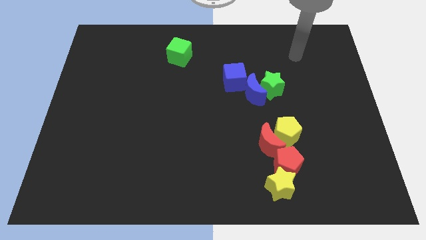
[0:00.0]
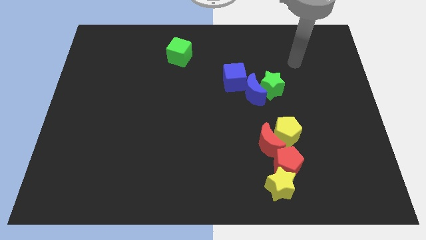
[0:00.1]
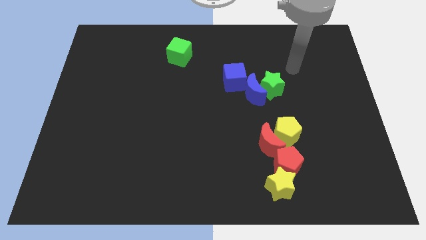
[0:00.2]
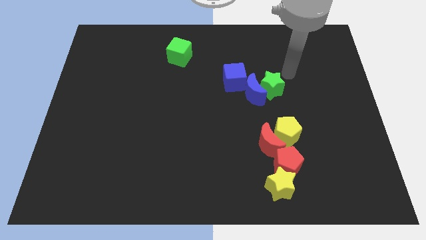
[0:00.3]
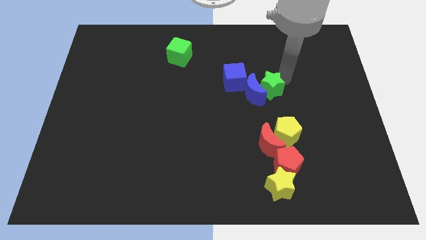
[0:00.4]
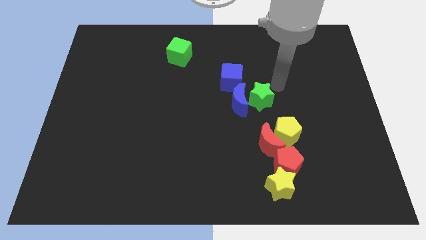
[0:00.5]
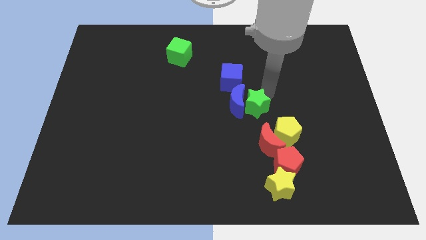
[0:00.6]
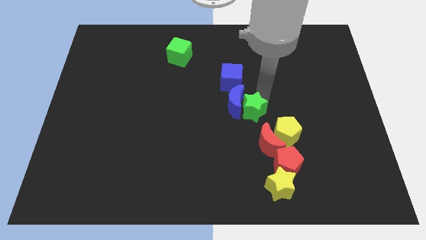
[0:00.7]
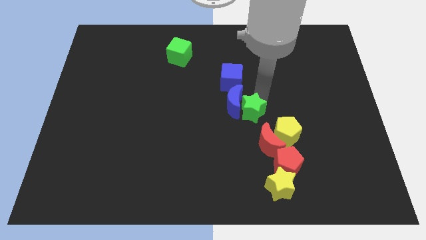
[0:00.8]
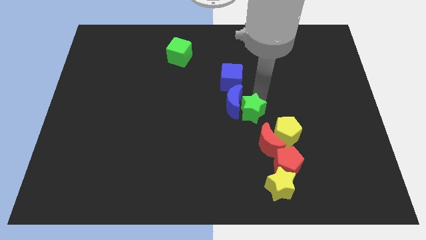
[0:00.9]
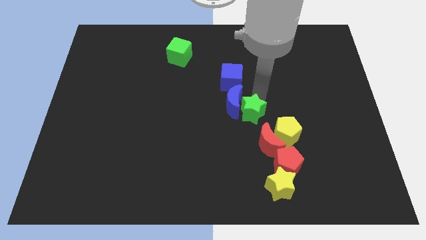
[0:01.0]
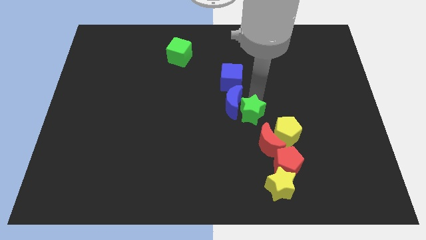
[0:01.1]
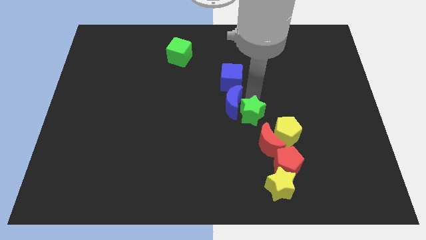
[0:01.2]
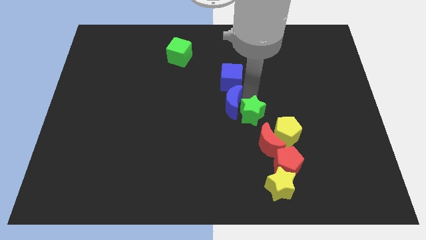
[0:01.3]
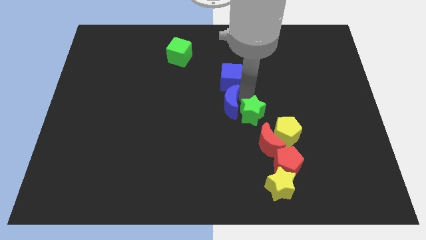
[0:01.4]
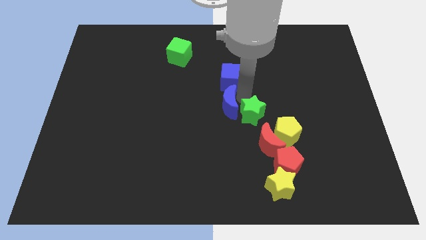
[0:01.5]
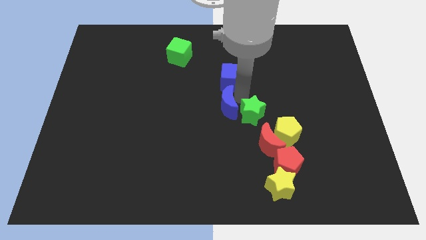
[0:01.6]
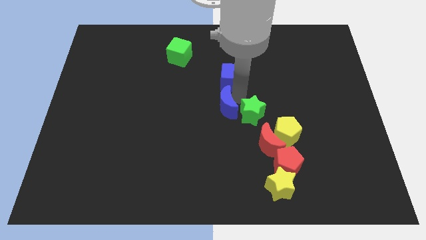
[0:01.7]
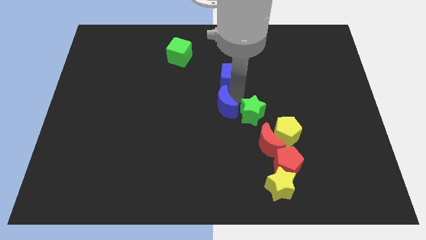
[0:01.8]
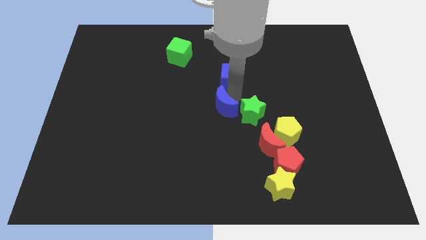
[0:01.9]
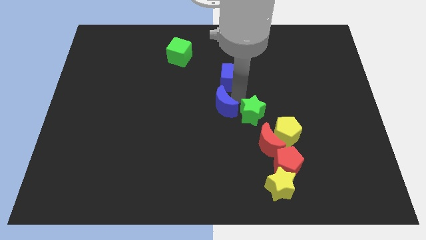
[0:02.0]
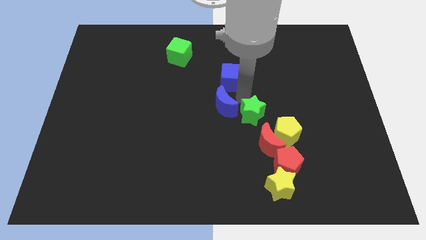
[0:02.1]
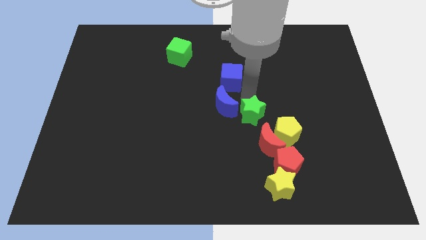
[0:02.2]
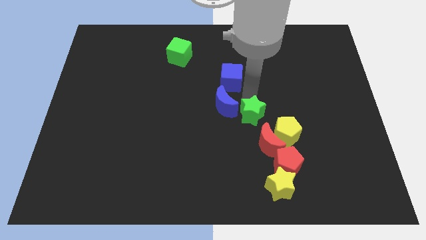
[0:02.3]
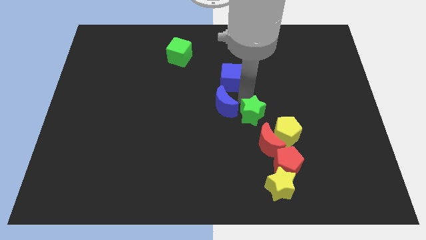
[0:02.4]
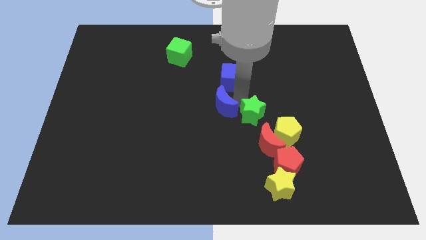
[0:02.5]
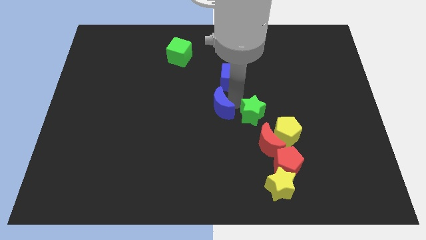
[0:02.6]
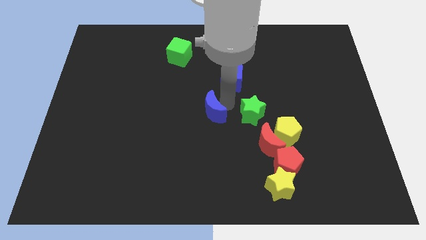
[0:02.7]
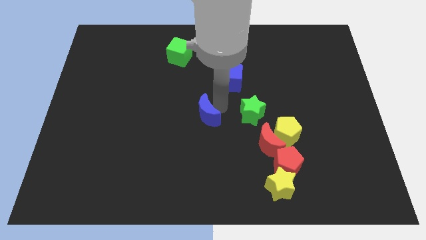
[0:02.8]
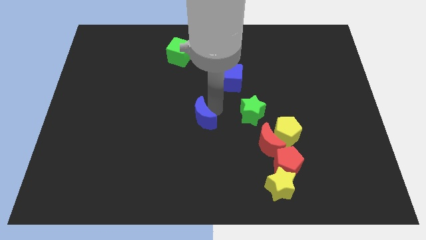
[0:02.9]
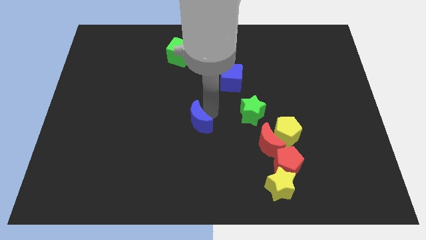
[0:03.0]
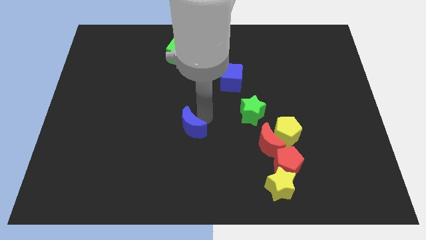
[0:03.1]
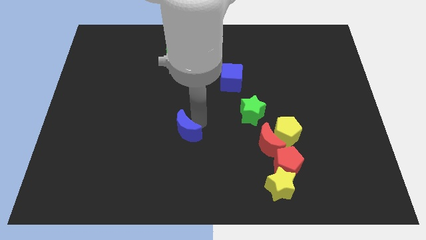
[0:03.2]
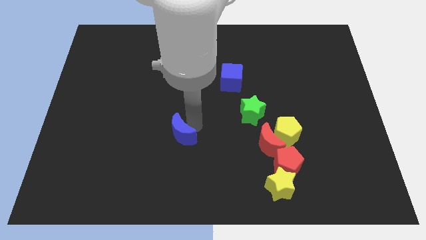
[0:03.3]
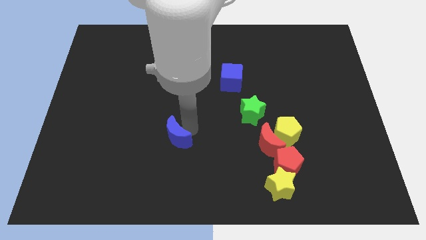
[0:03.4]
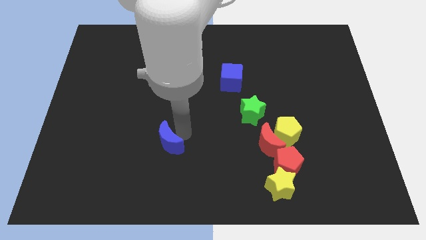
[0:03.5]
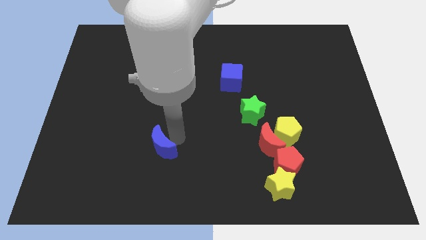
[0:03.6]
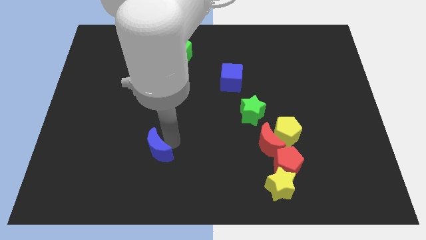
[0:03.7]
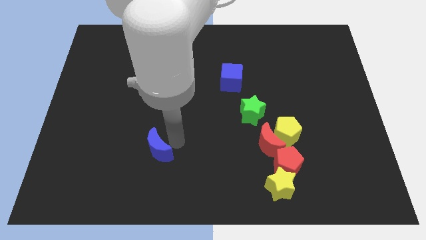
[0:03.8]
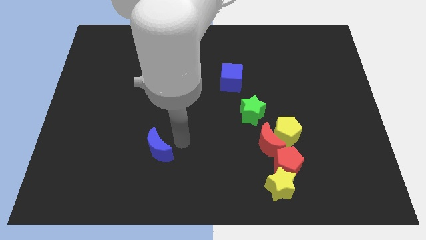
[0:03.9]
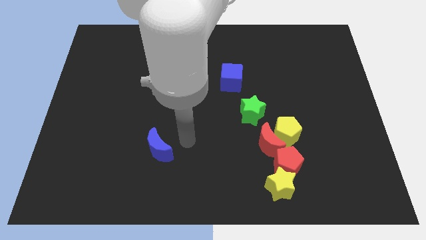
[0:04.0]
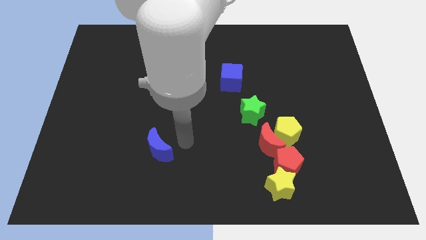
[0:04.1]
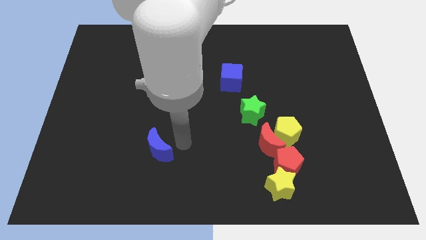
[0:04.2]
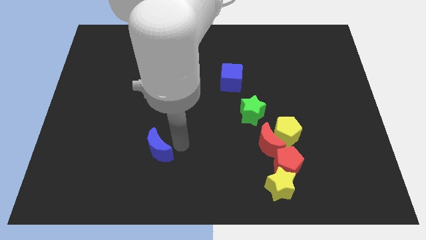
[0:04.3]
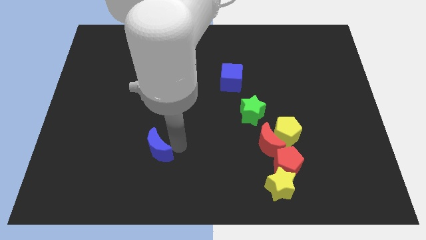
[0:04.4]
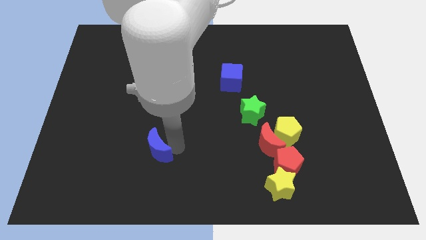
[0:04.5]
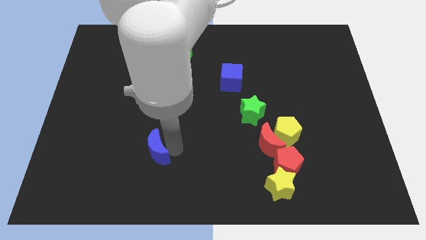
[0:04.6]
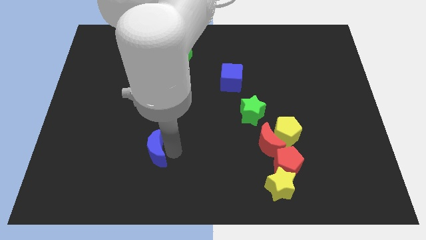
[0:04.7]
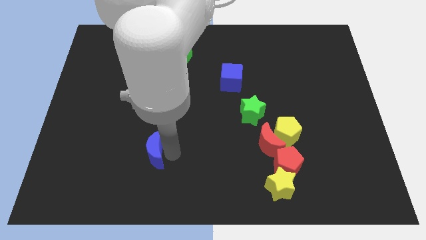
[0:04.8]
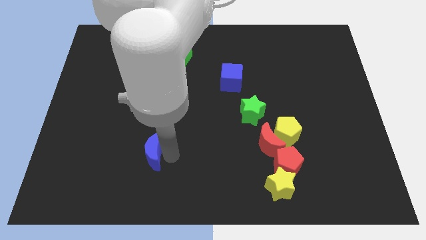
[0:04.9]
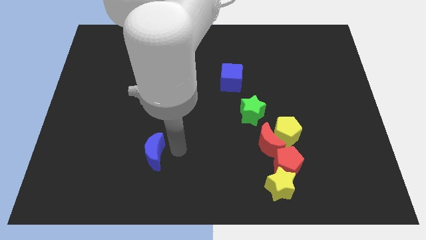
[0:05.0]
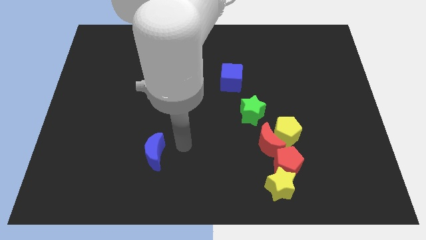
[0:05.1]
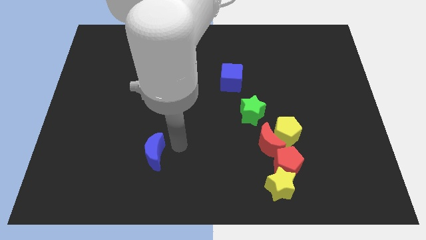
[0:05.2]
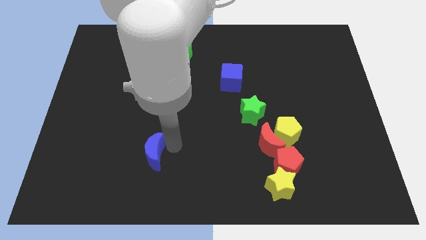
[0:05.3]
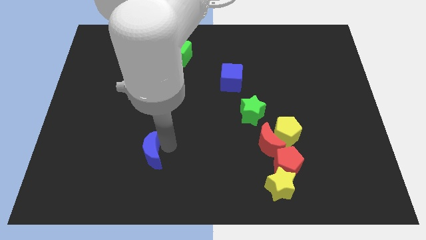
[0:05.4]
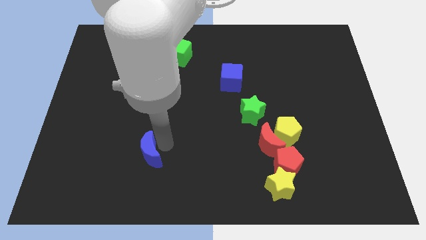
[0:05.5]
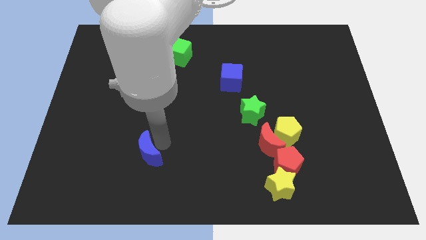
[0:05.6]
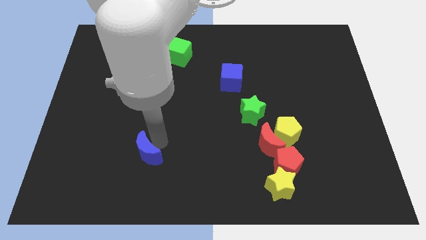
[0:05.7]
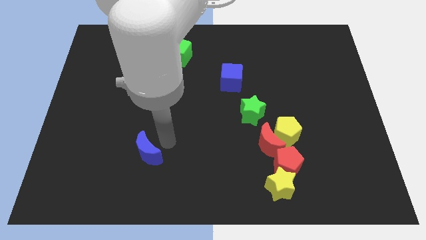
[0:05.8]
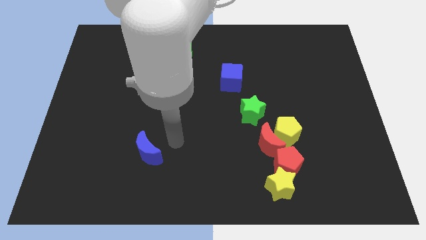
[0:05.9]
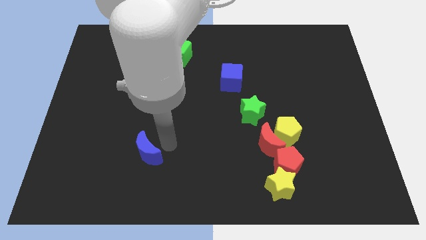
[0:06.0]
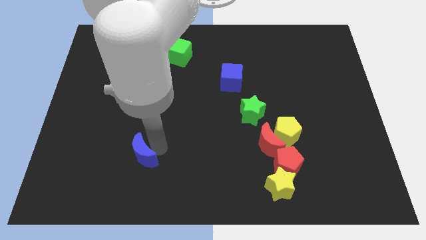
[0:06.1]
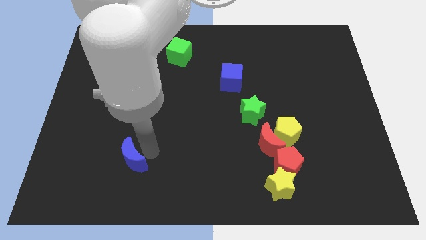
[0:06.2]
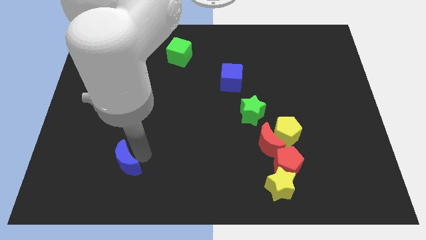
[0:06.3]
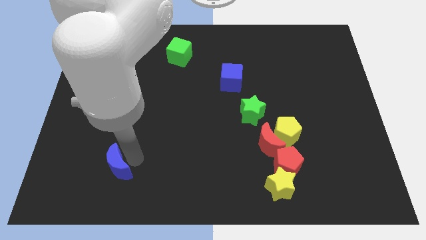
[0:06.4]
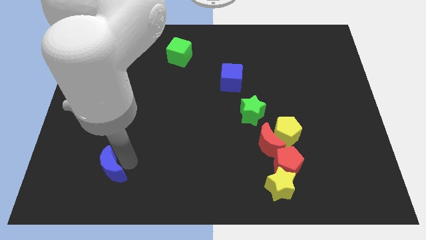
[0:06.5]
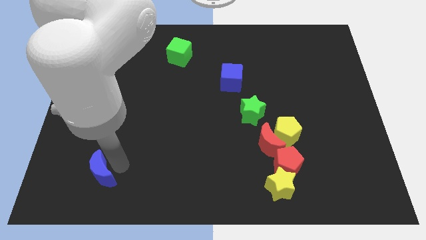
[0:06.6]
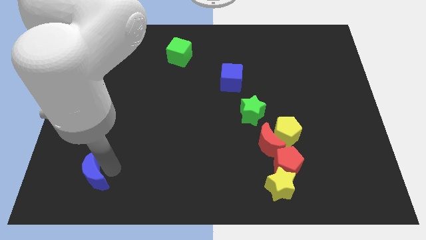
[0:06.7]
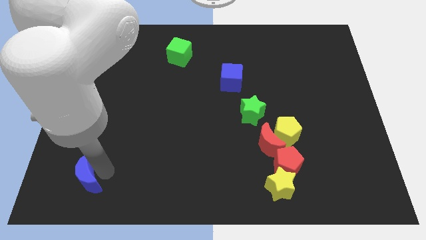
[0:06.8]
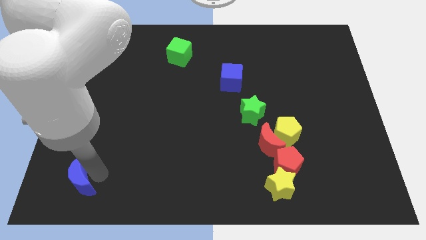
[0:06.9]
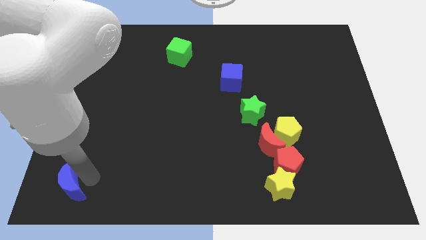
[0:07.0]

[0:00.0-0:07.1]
push the blue moon to the lower left corner
